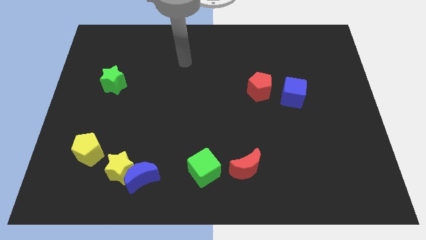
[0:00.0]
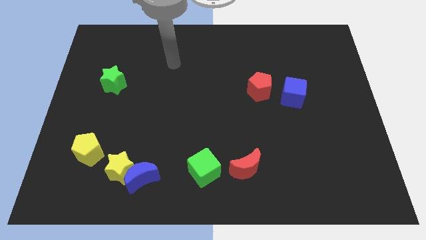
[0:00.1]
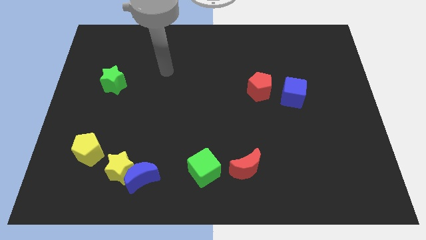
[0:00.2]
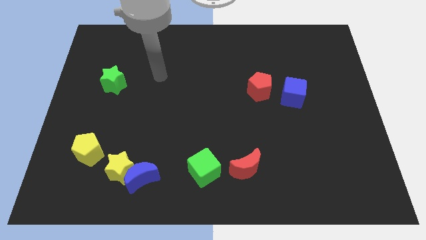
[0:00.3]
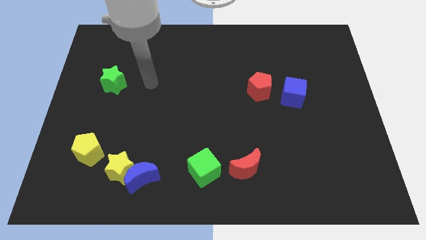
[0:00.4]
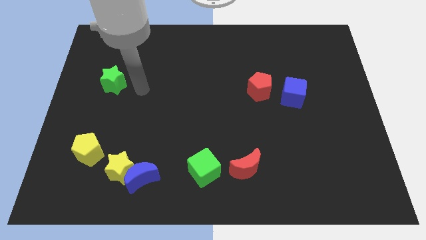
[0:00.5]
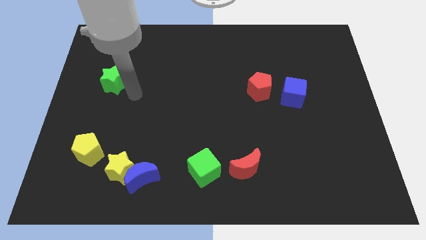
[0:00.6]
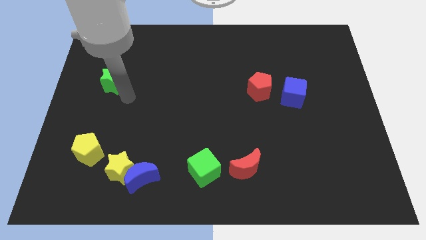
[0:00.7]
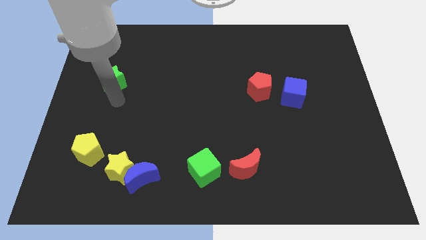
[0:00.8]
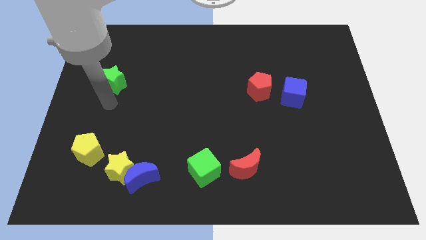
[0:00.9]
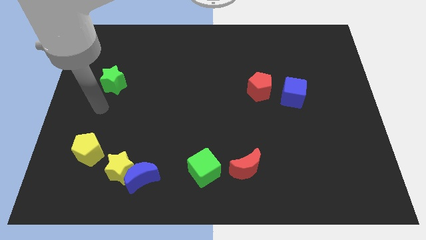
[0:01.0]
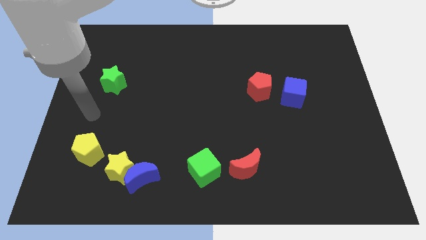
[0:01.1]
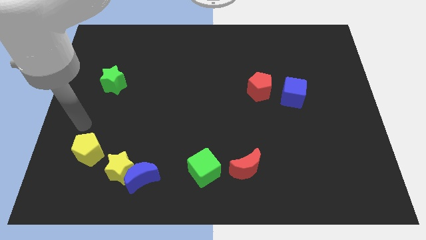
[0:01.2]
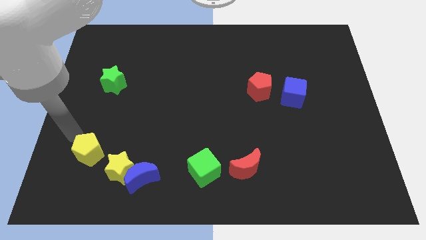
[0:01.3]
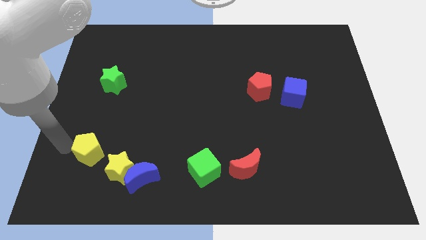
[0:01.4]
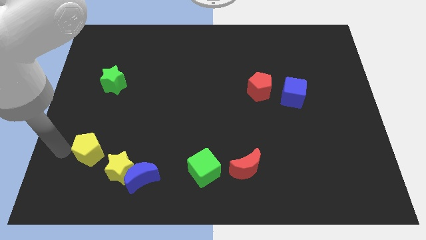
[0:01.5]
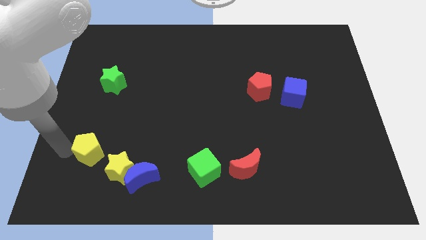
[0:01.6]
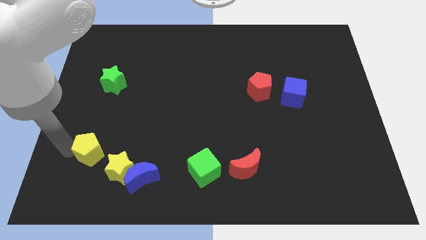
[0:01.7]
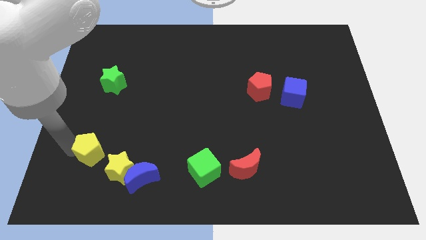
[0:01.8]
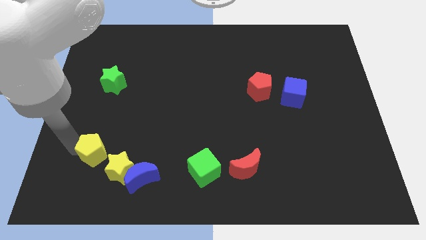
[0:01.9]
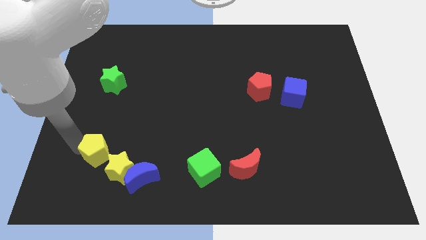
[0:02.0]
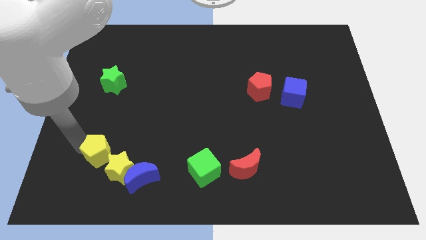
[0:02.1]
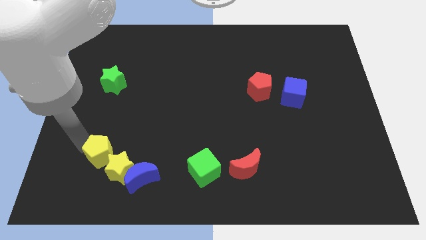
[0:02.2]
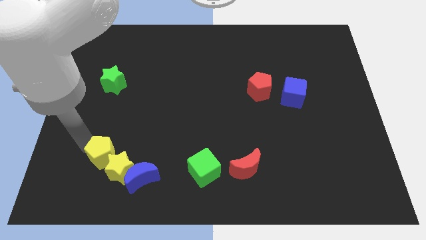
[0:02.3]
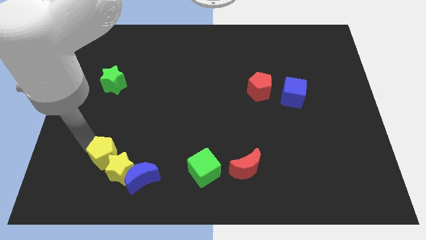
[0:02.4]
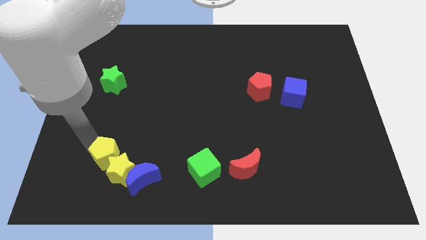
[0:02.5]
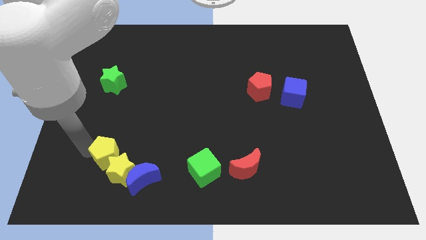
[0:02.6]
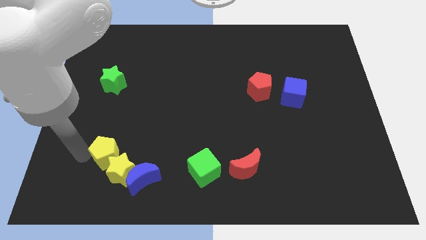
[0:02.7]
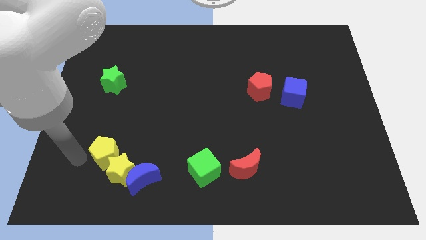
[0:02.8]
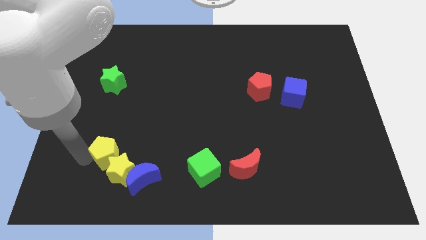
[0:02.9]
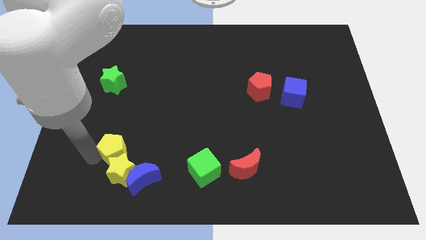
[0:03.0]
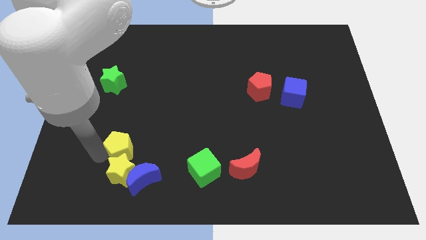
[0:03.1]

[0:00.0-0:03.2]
slide the yellow pentagon to the right slightly

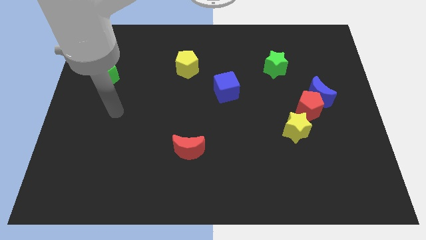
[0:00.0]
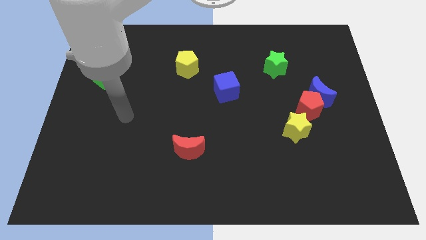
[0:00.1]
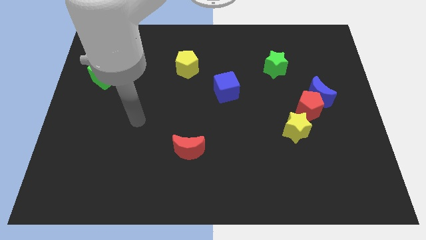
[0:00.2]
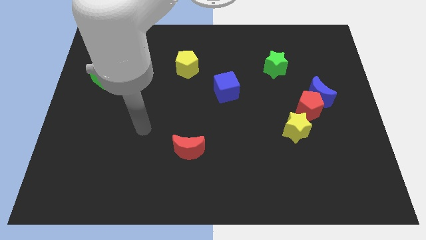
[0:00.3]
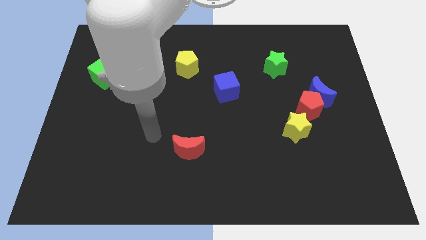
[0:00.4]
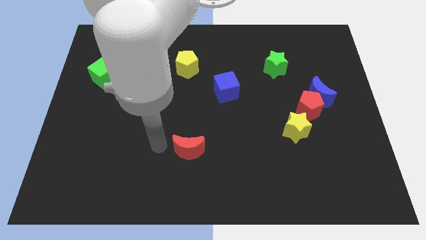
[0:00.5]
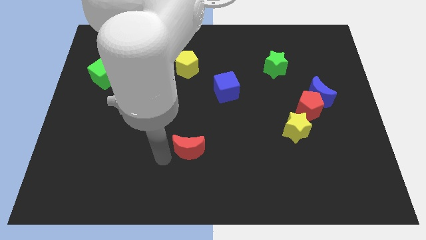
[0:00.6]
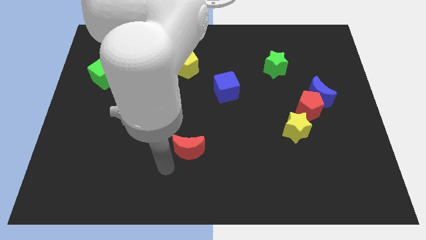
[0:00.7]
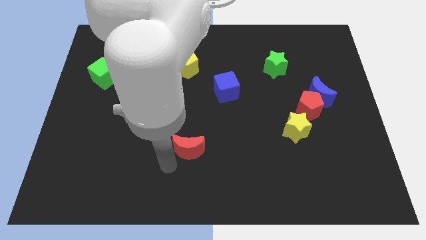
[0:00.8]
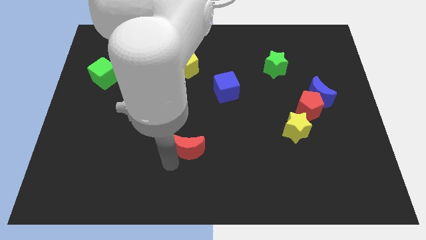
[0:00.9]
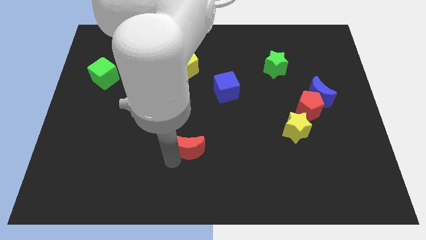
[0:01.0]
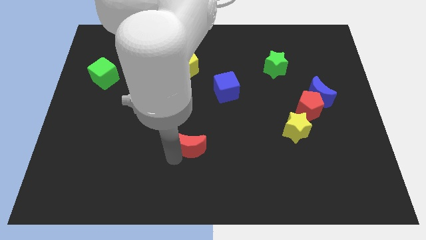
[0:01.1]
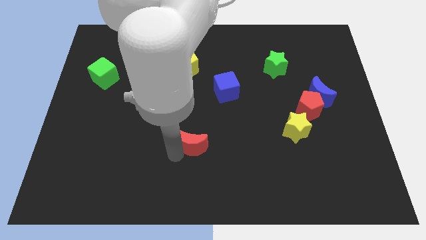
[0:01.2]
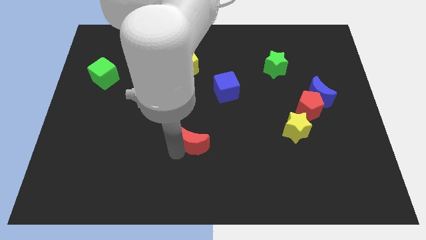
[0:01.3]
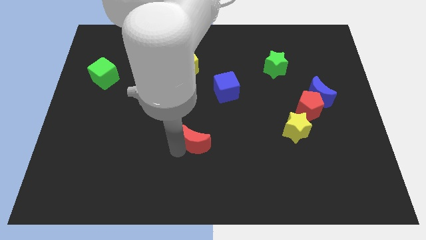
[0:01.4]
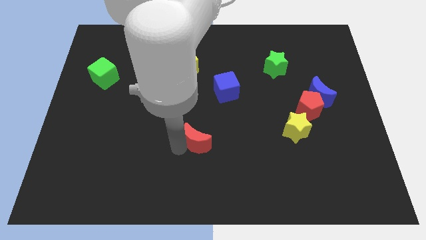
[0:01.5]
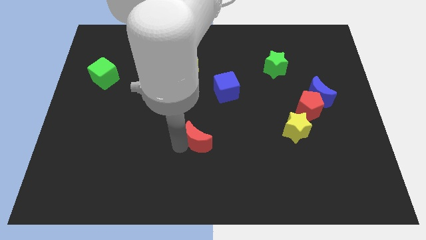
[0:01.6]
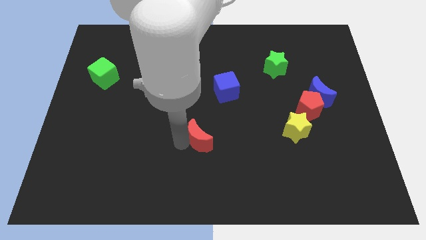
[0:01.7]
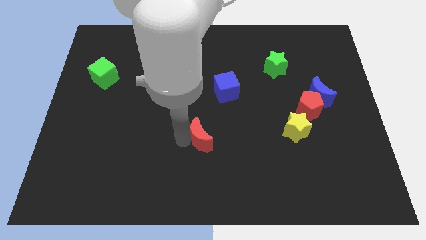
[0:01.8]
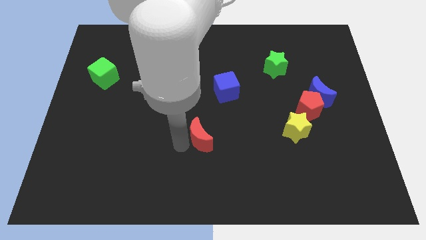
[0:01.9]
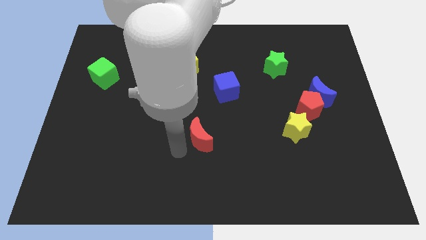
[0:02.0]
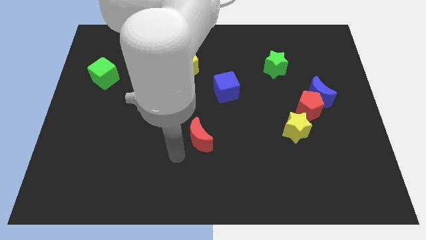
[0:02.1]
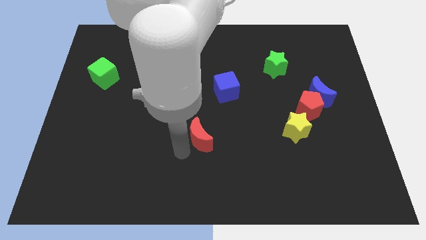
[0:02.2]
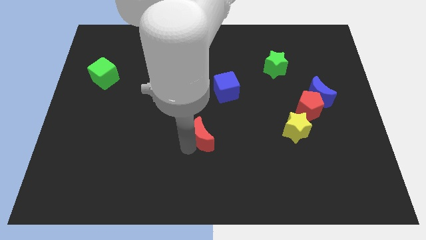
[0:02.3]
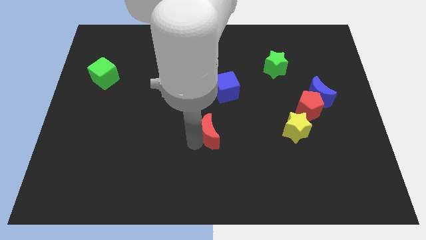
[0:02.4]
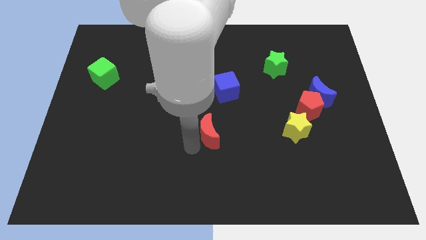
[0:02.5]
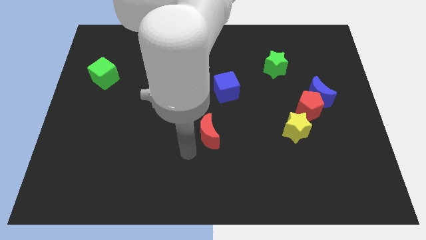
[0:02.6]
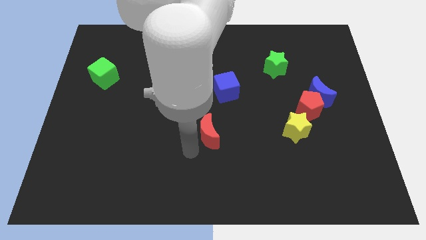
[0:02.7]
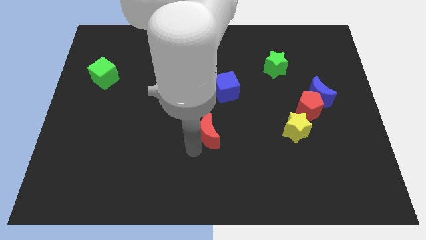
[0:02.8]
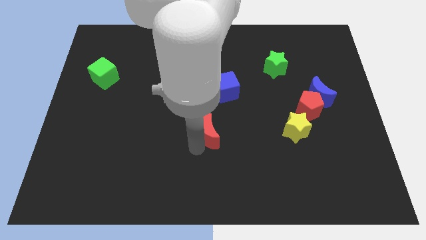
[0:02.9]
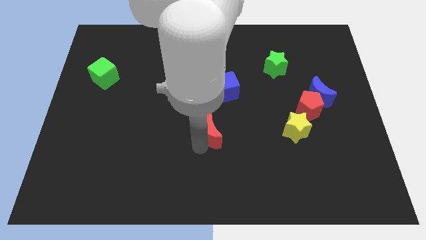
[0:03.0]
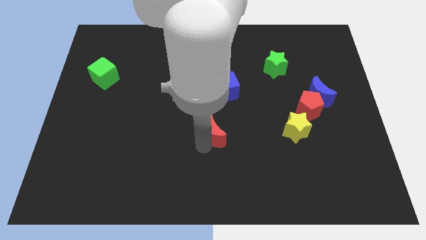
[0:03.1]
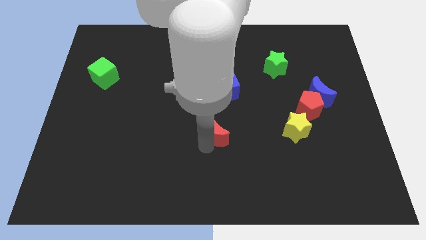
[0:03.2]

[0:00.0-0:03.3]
slide the red moon up and then to the right a little

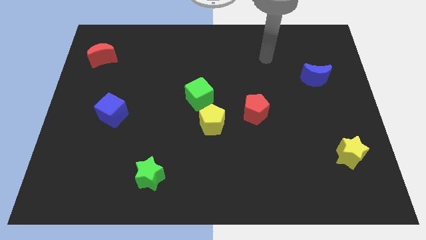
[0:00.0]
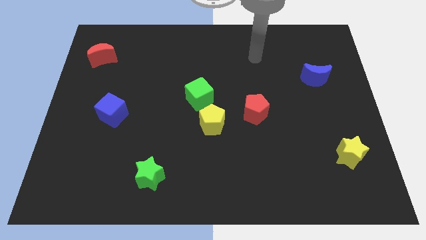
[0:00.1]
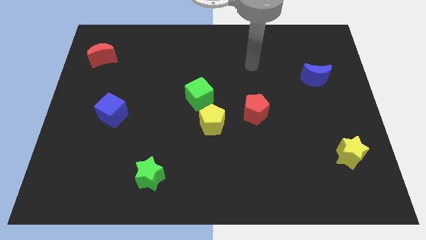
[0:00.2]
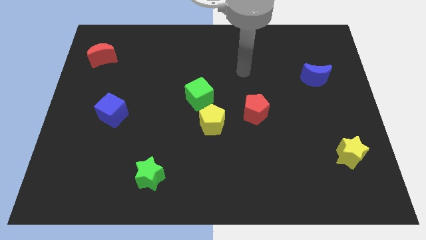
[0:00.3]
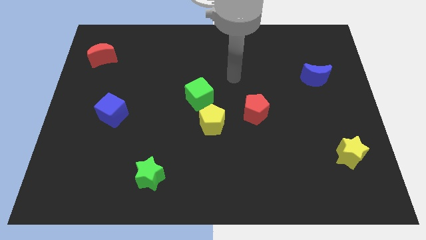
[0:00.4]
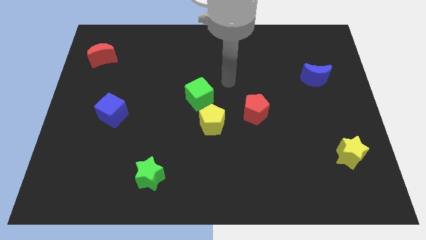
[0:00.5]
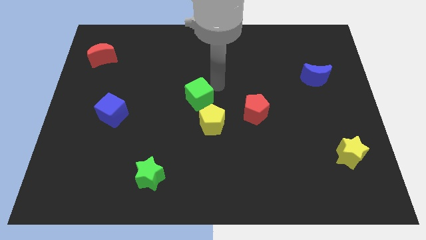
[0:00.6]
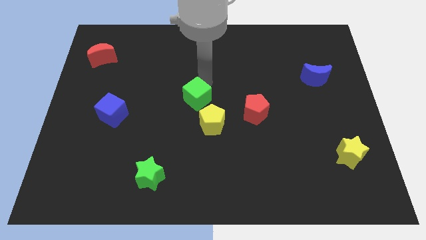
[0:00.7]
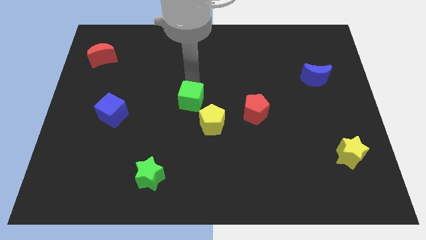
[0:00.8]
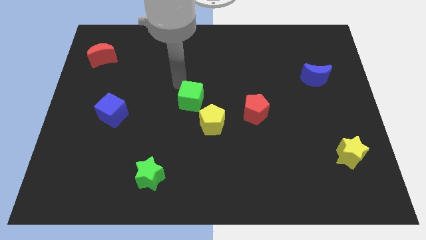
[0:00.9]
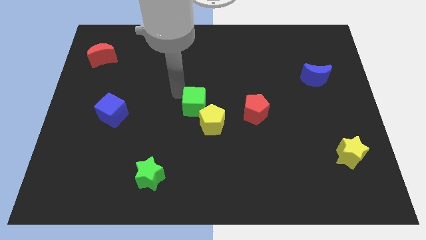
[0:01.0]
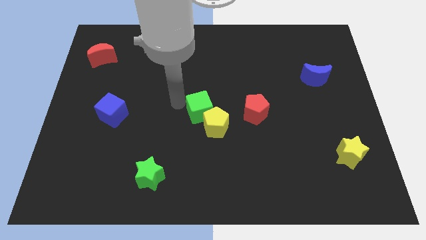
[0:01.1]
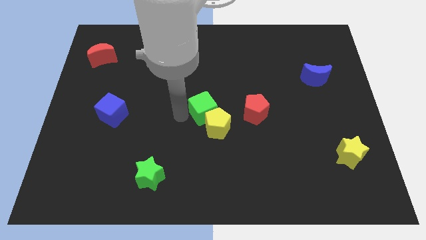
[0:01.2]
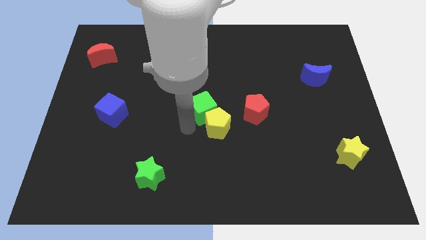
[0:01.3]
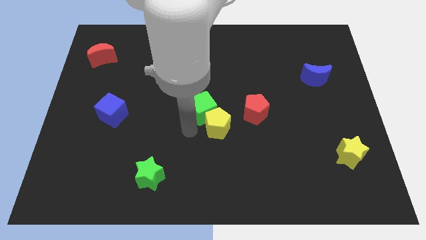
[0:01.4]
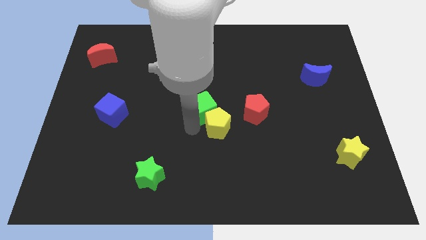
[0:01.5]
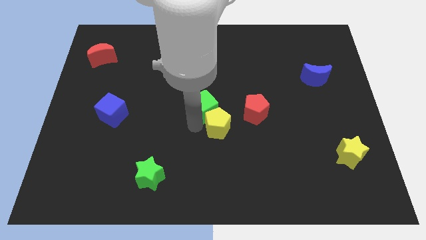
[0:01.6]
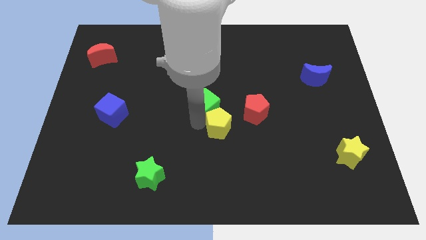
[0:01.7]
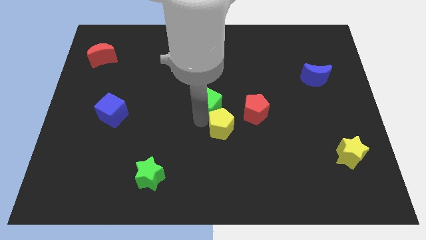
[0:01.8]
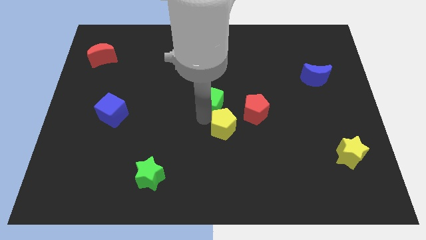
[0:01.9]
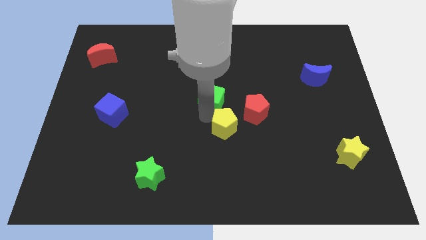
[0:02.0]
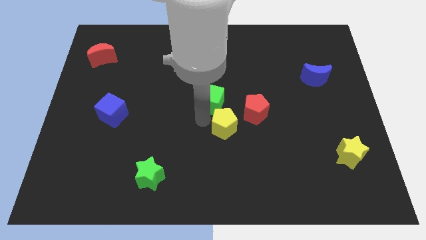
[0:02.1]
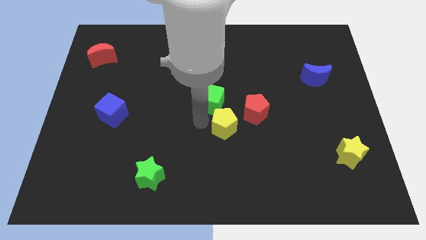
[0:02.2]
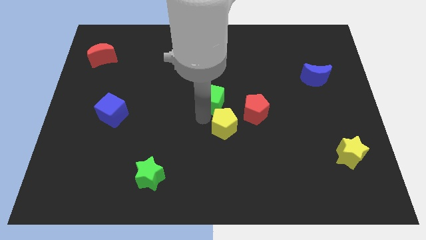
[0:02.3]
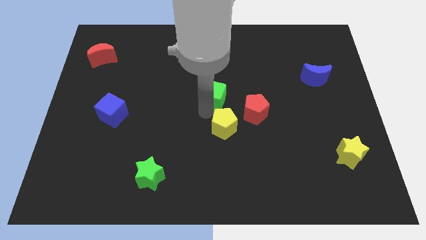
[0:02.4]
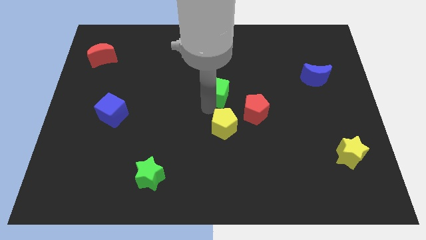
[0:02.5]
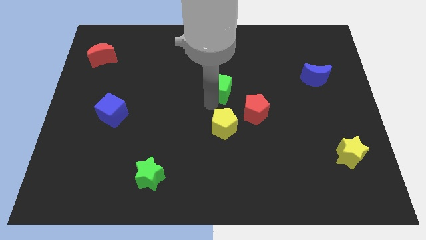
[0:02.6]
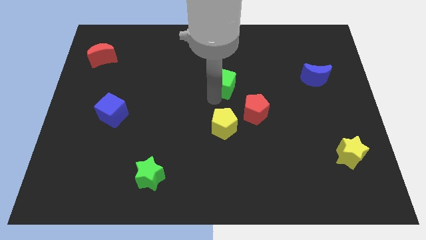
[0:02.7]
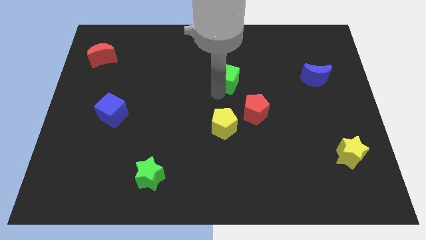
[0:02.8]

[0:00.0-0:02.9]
move the green cube a little bit upwards and then right
